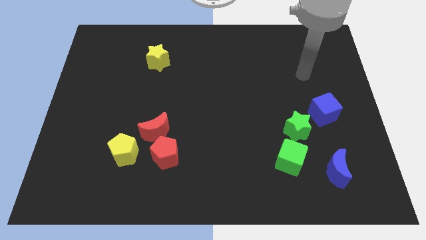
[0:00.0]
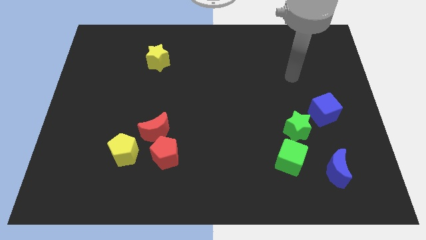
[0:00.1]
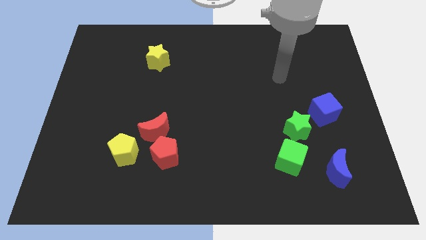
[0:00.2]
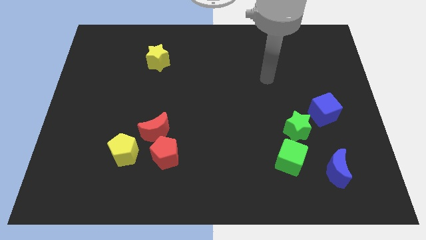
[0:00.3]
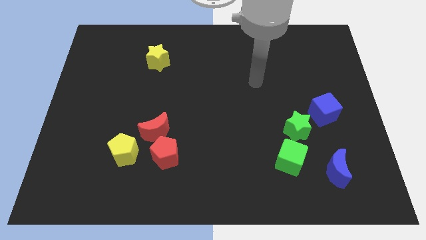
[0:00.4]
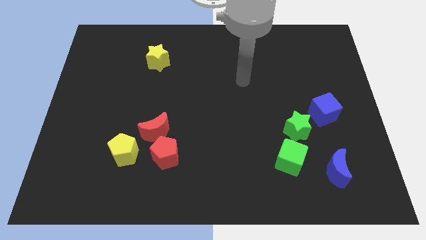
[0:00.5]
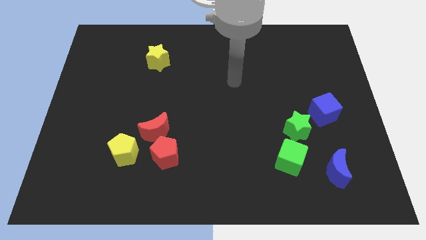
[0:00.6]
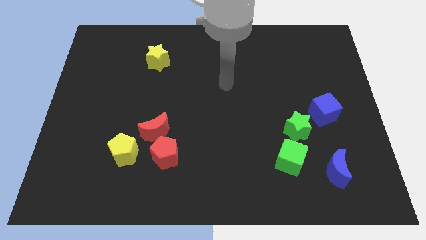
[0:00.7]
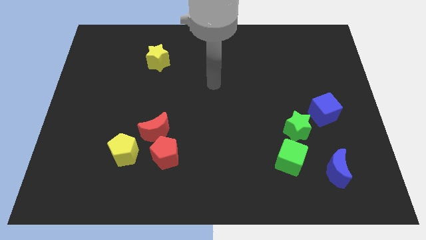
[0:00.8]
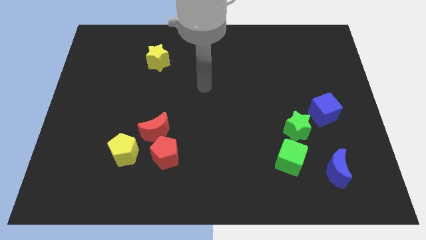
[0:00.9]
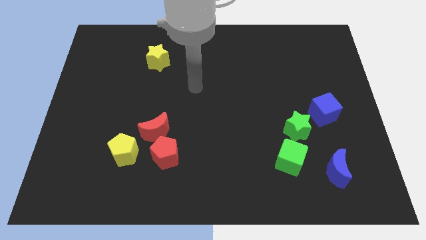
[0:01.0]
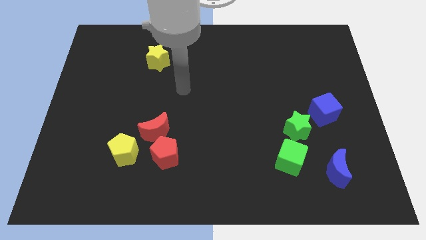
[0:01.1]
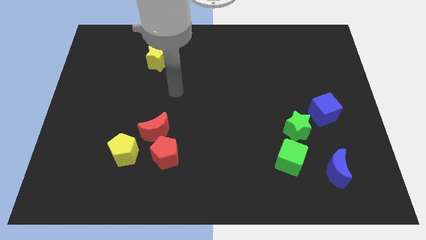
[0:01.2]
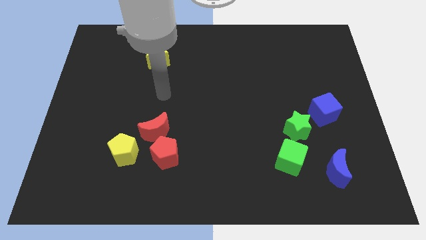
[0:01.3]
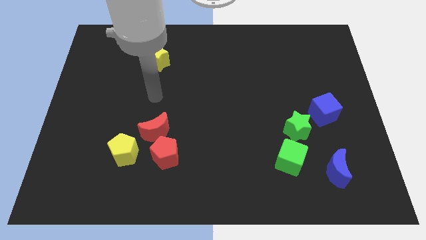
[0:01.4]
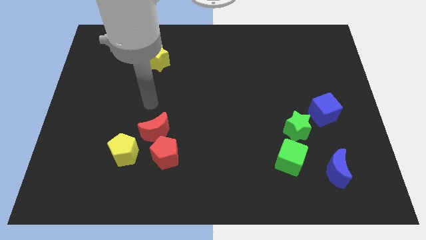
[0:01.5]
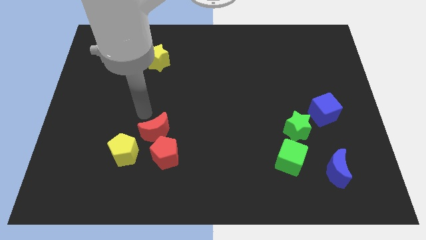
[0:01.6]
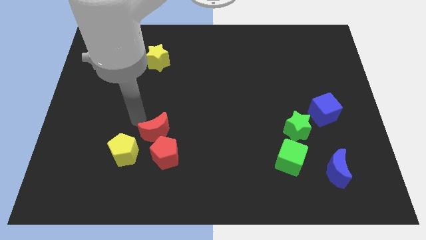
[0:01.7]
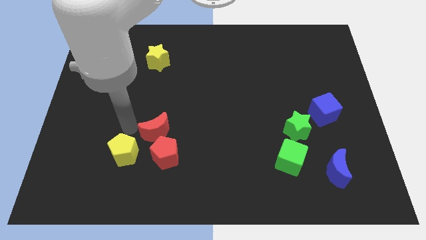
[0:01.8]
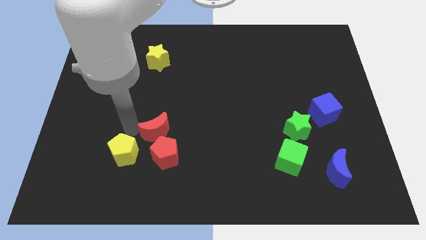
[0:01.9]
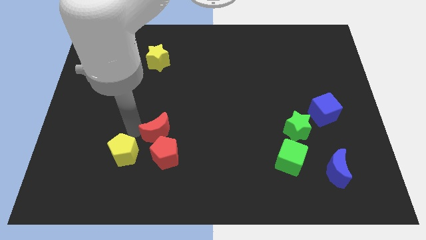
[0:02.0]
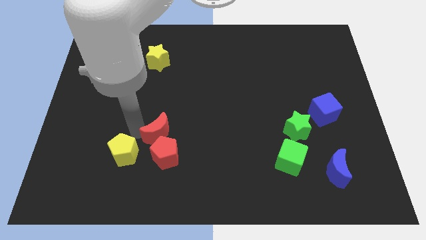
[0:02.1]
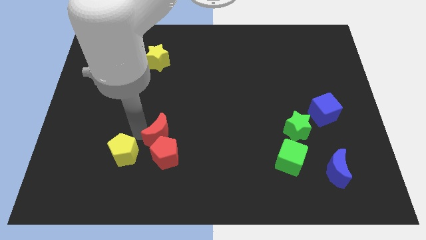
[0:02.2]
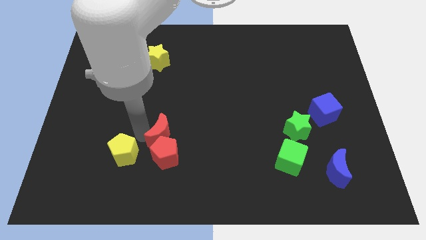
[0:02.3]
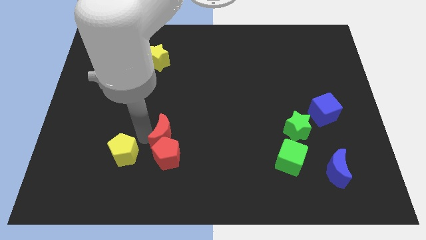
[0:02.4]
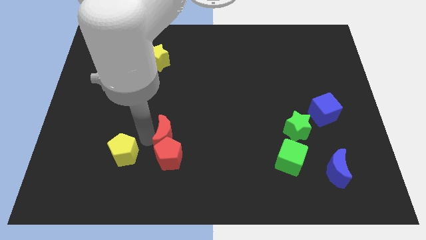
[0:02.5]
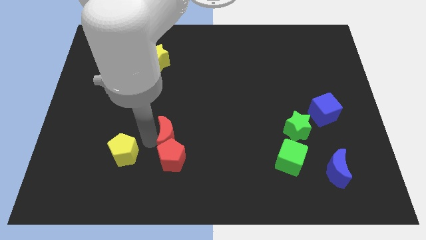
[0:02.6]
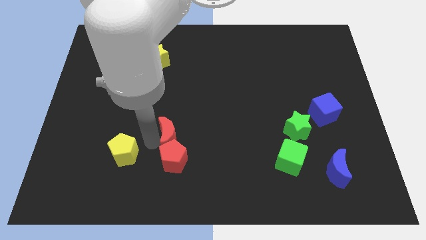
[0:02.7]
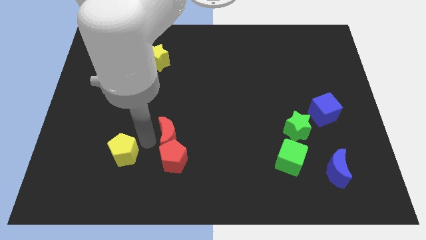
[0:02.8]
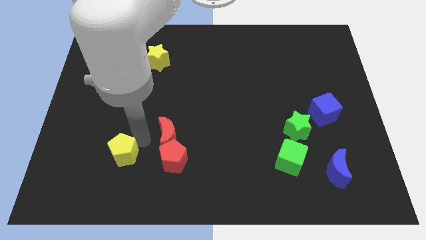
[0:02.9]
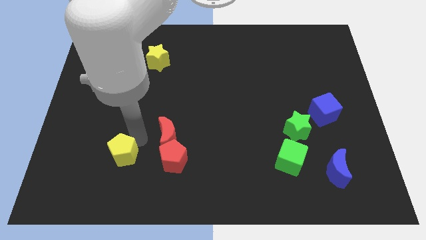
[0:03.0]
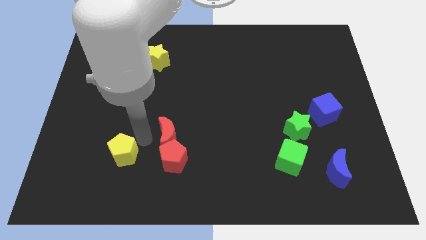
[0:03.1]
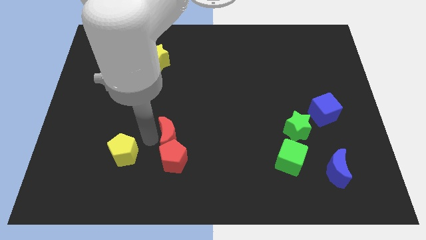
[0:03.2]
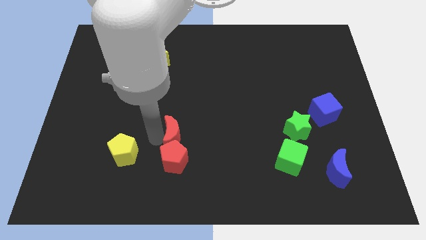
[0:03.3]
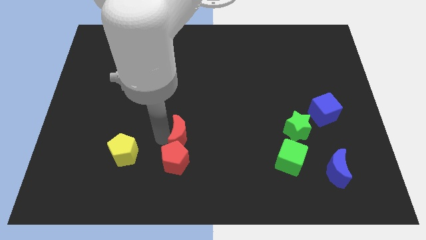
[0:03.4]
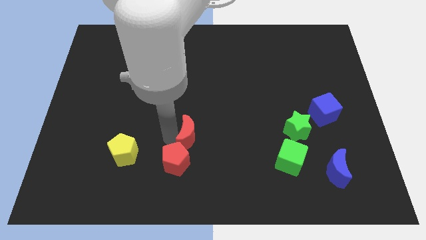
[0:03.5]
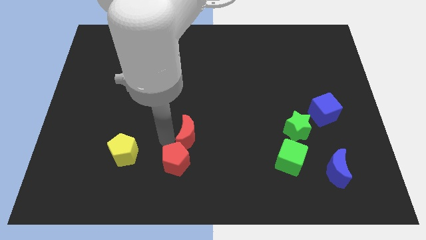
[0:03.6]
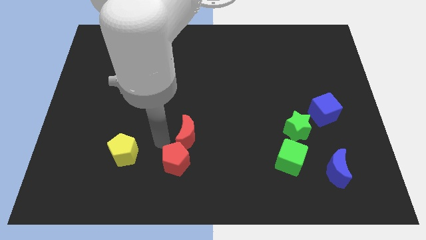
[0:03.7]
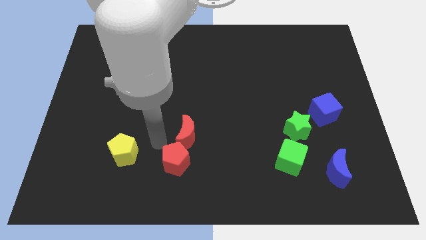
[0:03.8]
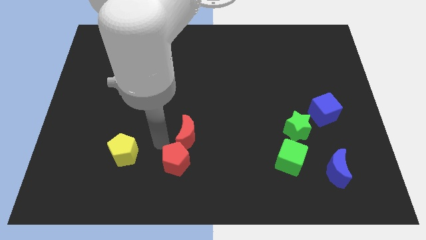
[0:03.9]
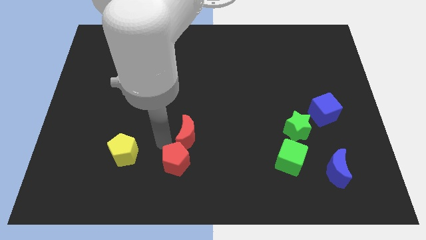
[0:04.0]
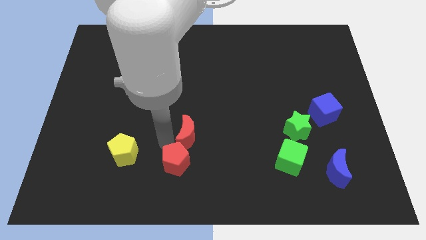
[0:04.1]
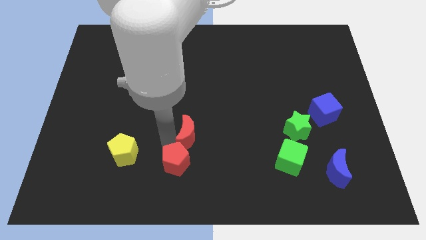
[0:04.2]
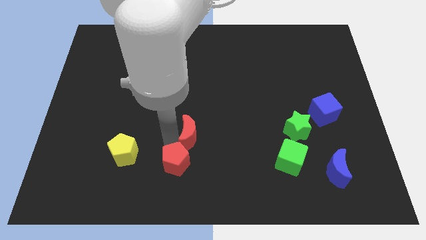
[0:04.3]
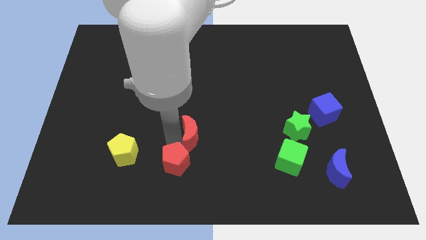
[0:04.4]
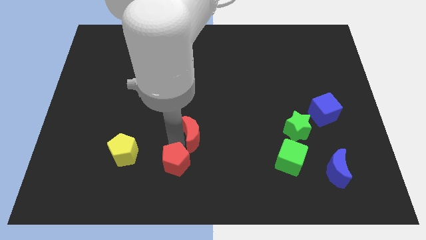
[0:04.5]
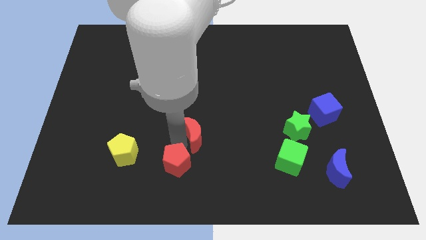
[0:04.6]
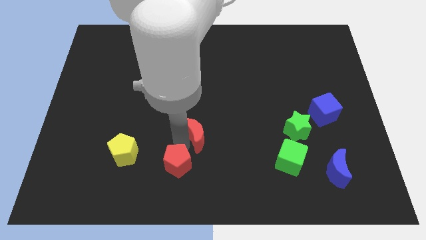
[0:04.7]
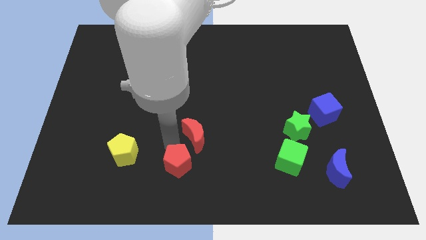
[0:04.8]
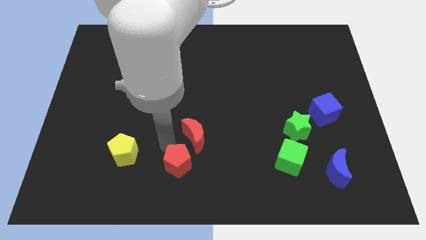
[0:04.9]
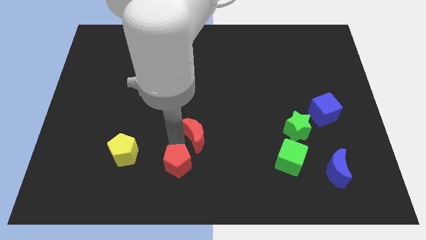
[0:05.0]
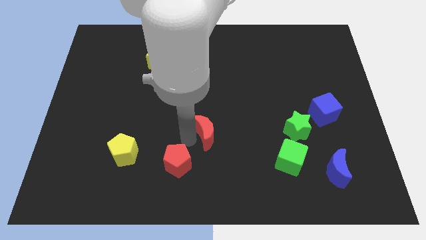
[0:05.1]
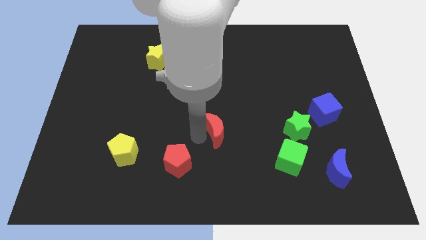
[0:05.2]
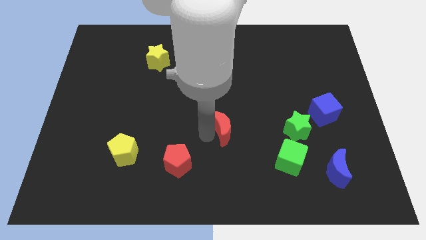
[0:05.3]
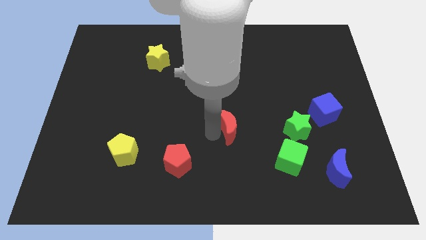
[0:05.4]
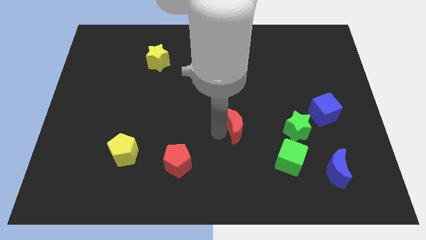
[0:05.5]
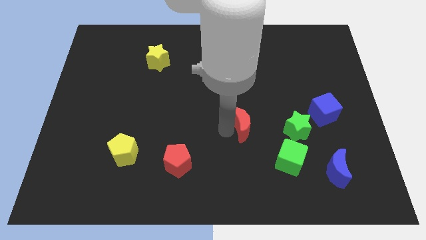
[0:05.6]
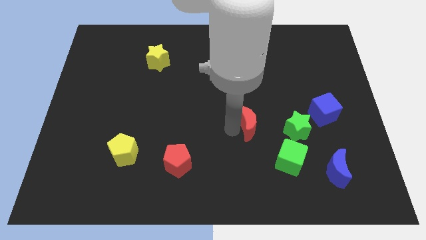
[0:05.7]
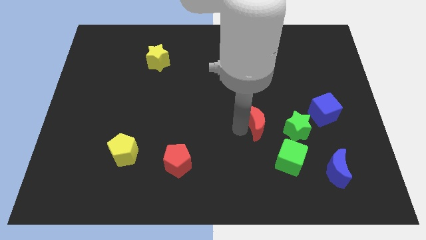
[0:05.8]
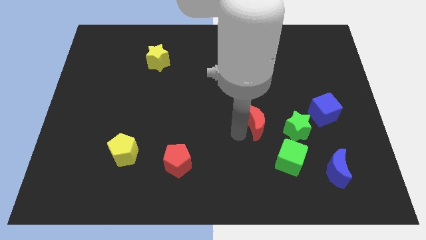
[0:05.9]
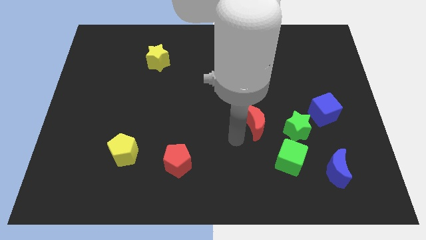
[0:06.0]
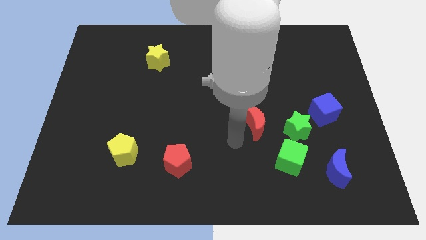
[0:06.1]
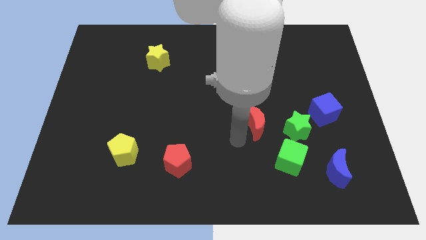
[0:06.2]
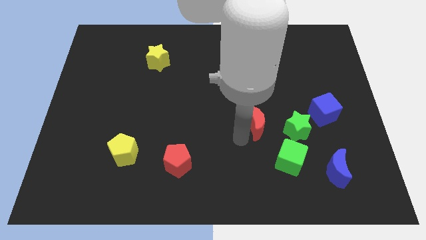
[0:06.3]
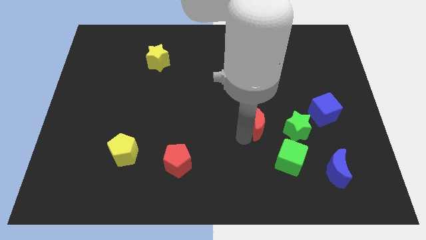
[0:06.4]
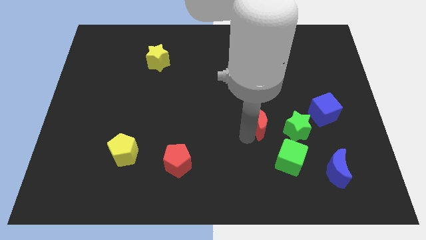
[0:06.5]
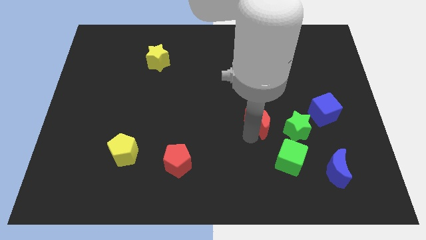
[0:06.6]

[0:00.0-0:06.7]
slide the red moon diagonally up and to the left of the green star

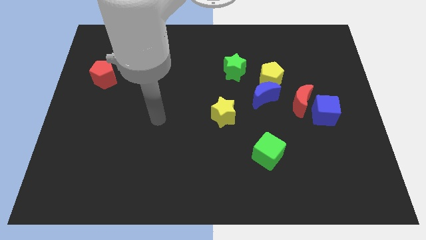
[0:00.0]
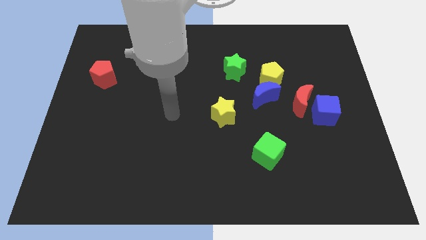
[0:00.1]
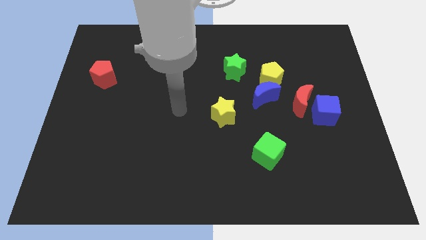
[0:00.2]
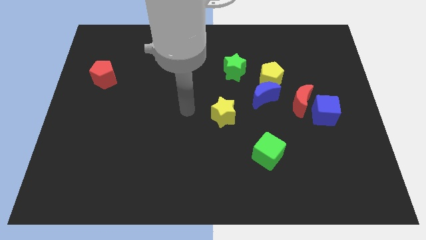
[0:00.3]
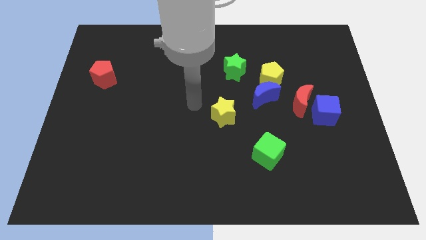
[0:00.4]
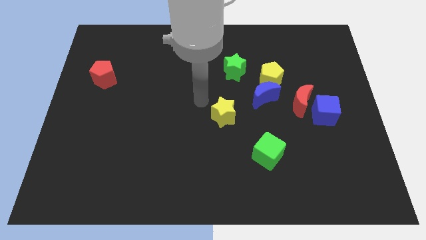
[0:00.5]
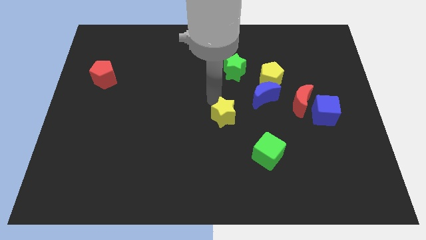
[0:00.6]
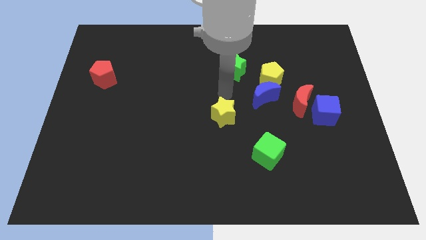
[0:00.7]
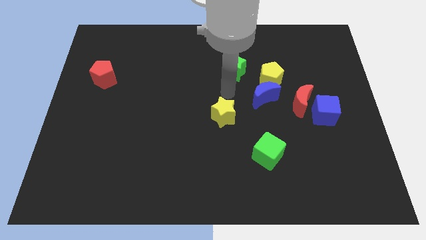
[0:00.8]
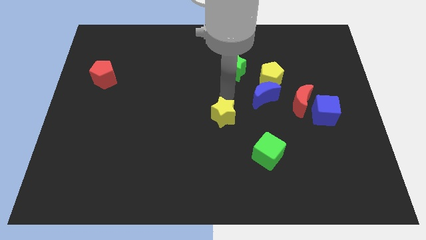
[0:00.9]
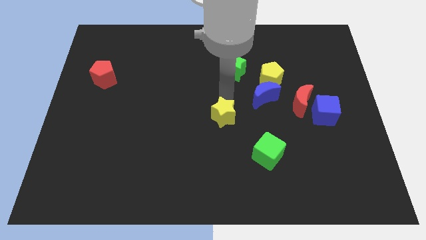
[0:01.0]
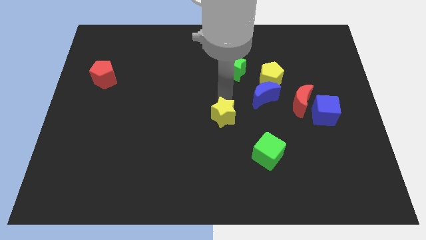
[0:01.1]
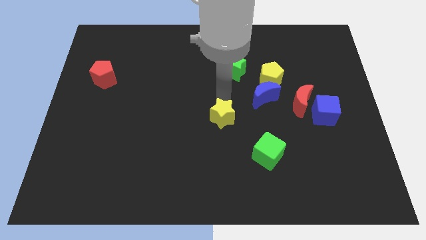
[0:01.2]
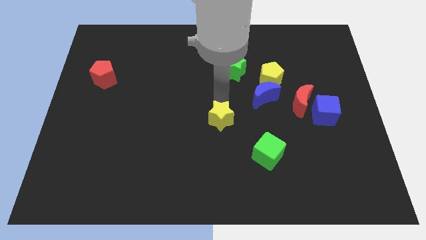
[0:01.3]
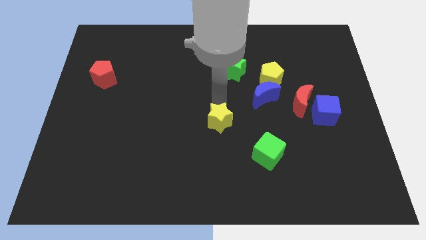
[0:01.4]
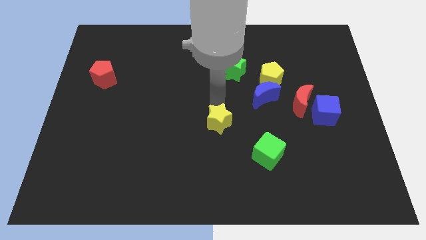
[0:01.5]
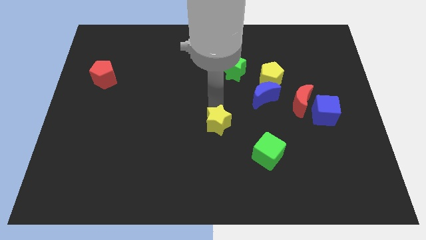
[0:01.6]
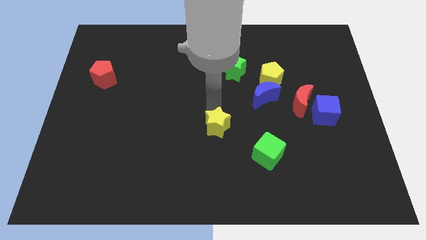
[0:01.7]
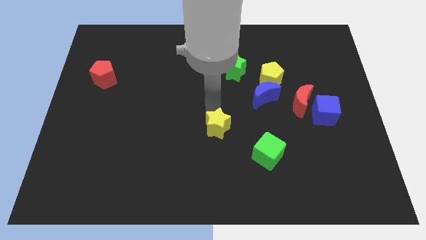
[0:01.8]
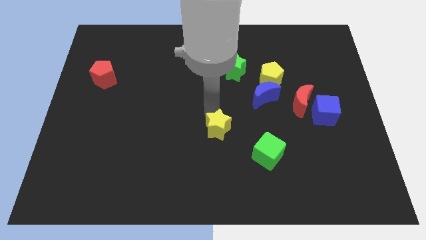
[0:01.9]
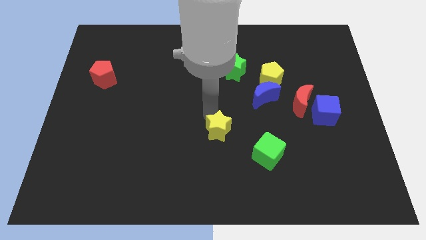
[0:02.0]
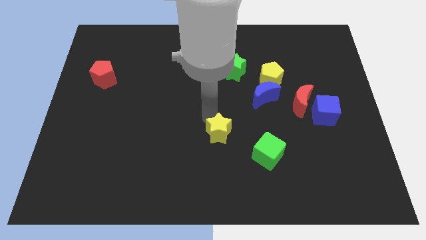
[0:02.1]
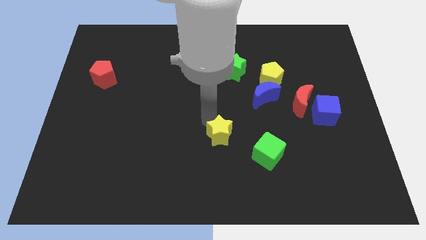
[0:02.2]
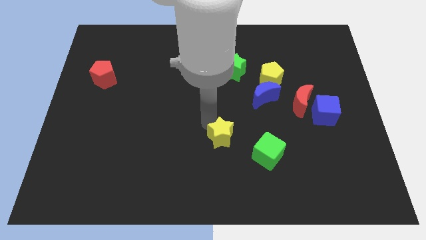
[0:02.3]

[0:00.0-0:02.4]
move the yellow star just left of the green cube
